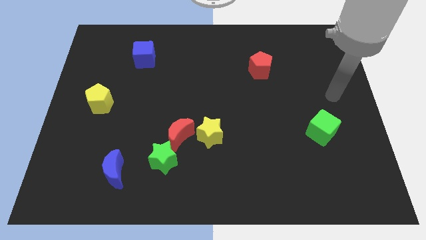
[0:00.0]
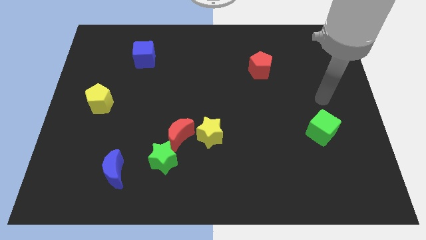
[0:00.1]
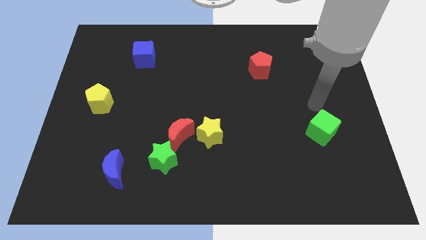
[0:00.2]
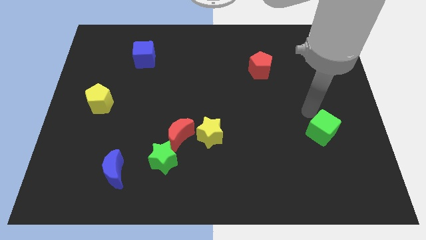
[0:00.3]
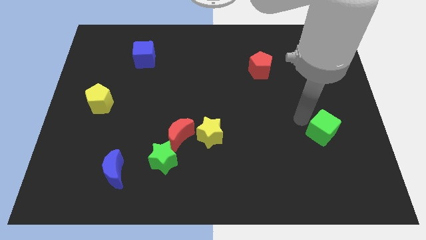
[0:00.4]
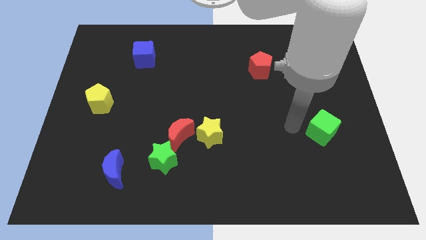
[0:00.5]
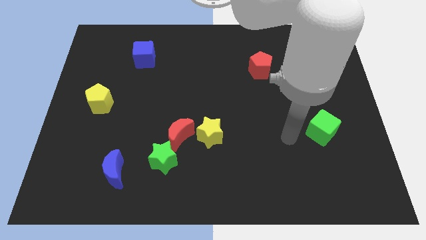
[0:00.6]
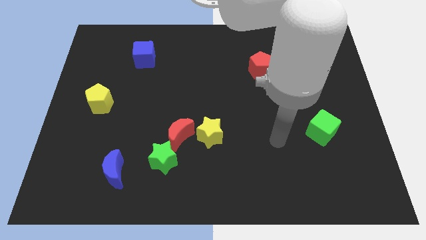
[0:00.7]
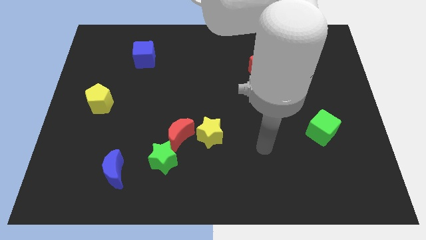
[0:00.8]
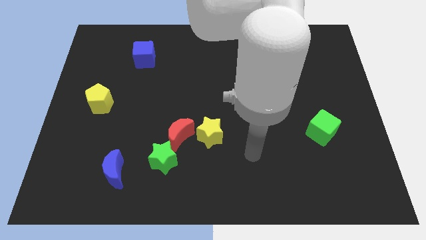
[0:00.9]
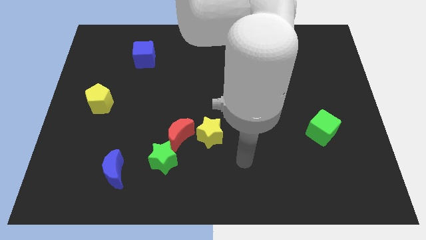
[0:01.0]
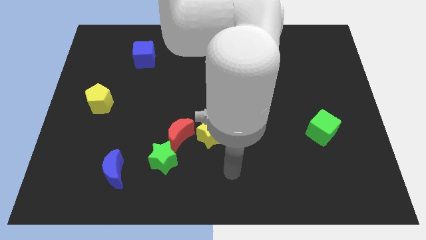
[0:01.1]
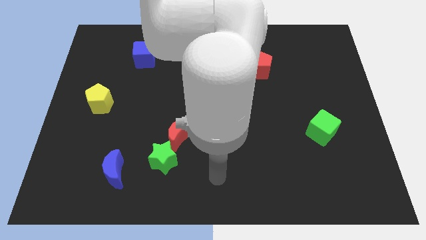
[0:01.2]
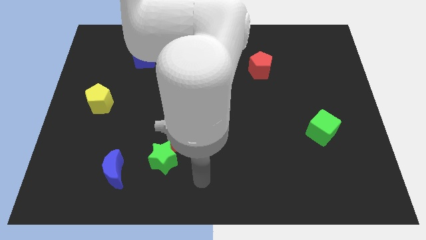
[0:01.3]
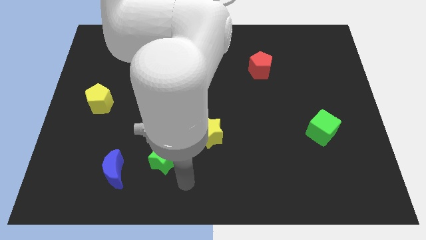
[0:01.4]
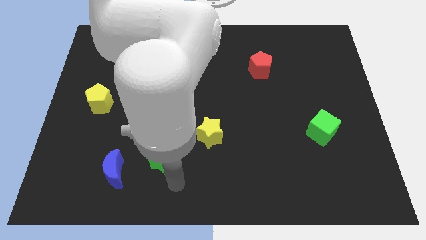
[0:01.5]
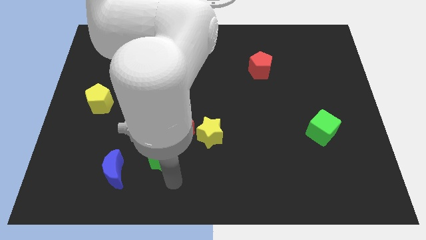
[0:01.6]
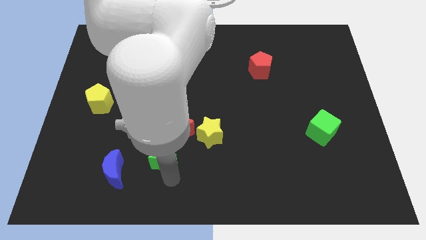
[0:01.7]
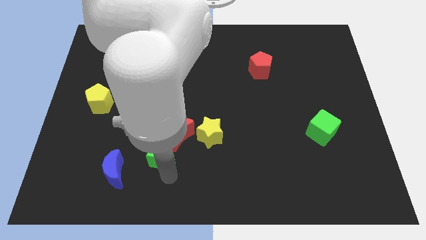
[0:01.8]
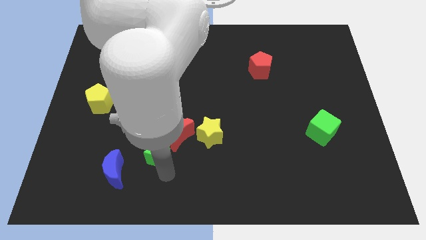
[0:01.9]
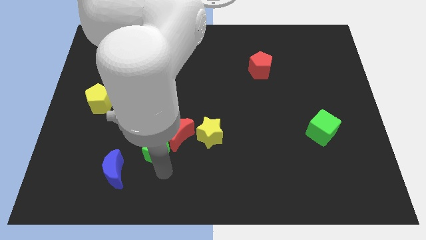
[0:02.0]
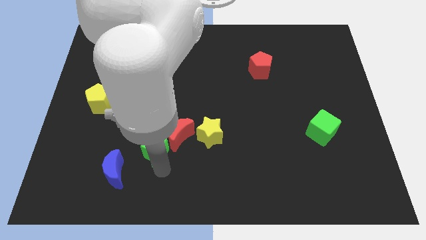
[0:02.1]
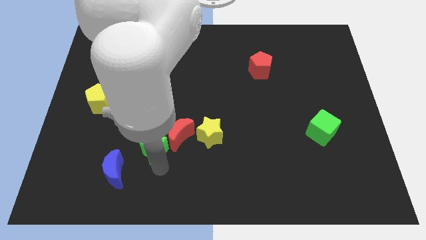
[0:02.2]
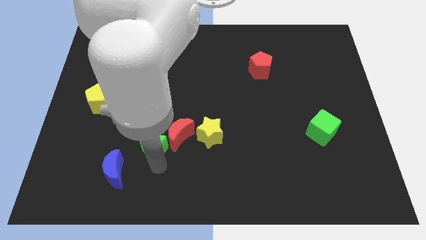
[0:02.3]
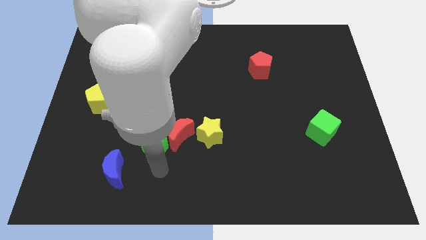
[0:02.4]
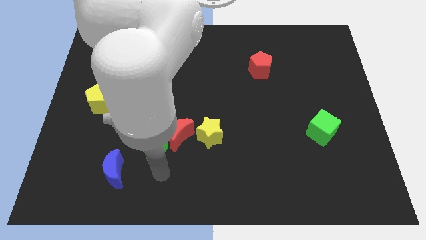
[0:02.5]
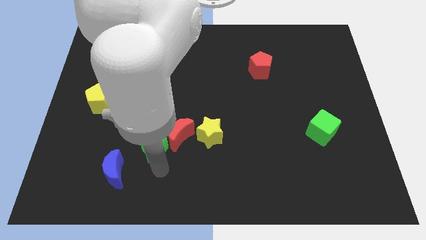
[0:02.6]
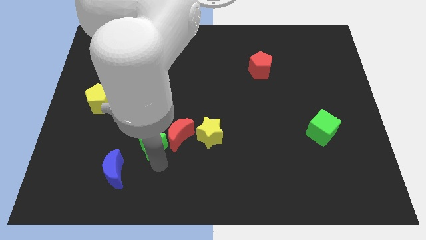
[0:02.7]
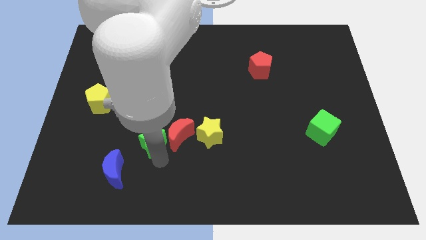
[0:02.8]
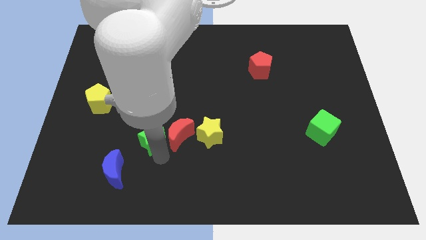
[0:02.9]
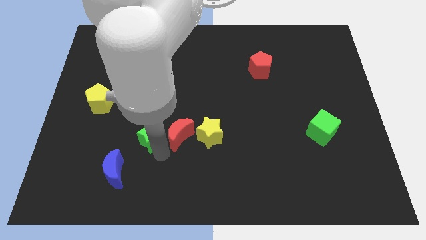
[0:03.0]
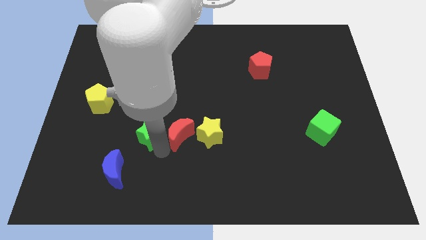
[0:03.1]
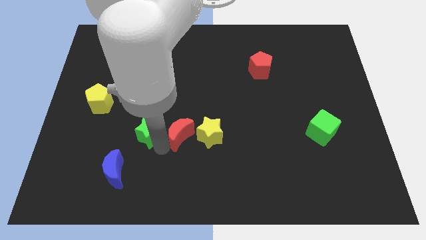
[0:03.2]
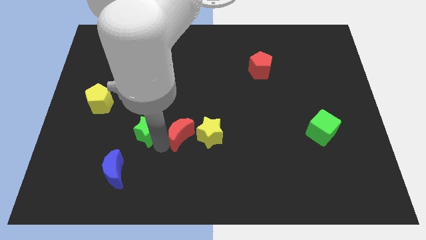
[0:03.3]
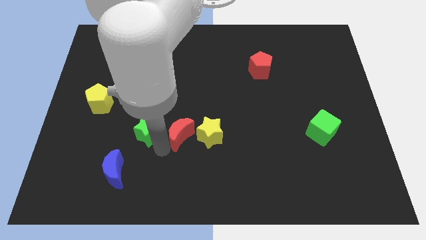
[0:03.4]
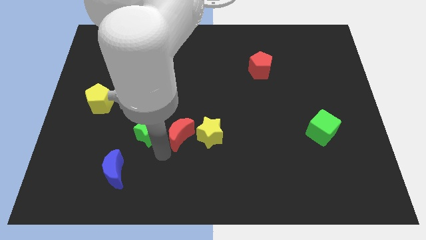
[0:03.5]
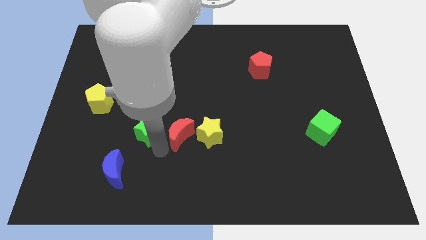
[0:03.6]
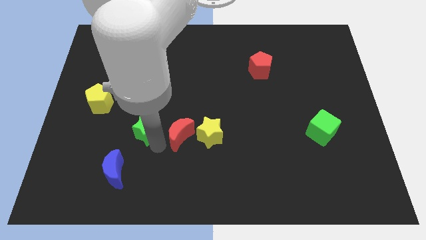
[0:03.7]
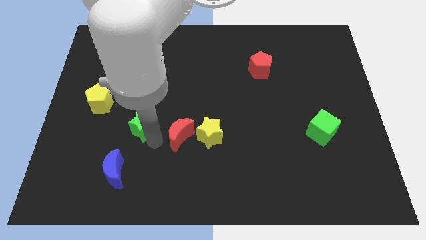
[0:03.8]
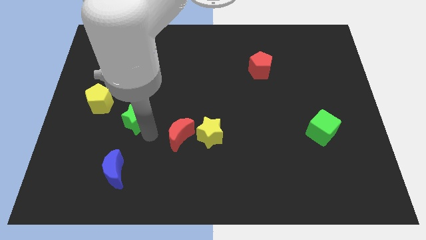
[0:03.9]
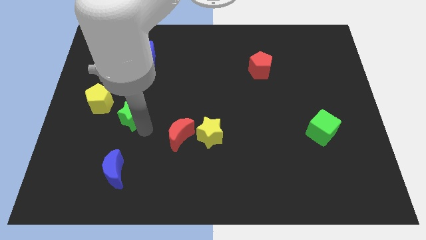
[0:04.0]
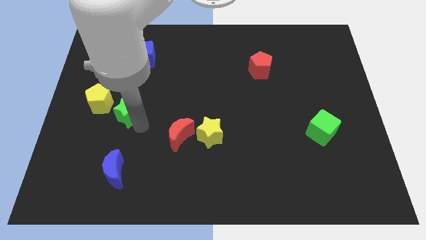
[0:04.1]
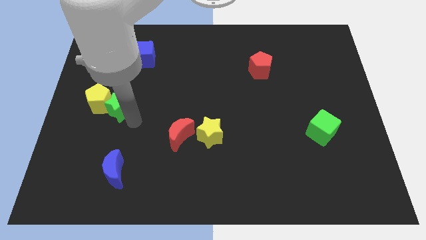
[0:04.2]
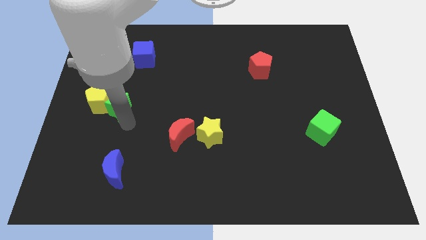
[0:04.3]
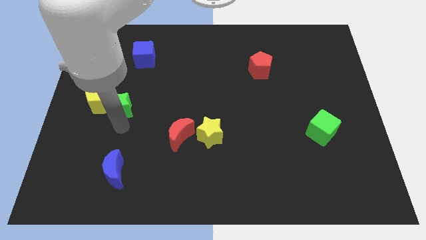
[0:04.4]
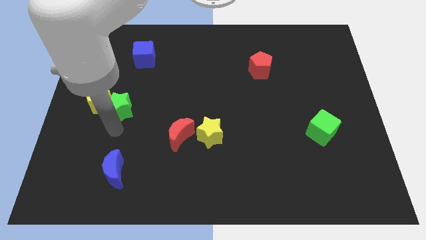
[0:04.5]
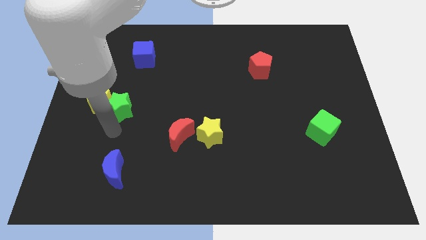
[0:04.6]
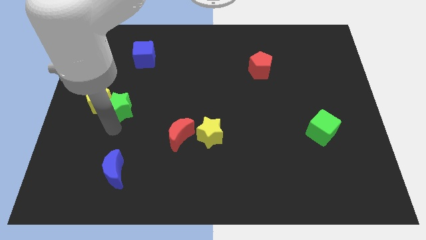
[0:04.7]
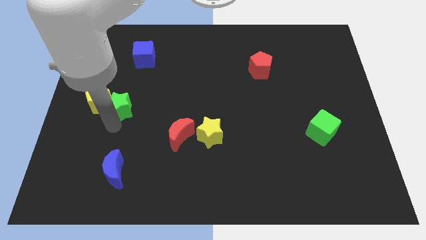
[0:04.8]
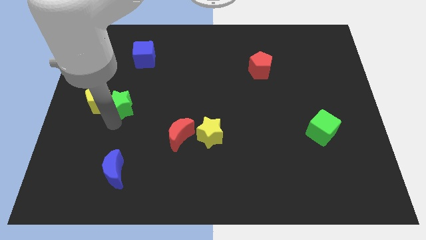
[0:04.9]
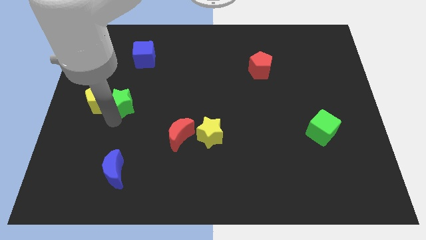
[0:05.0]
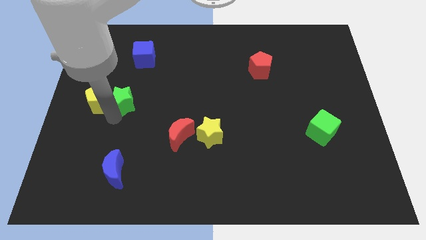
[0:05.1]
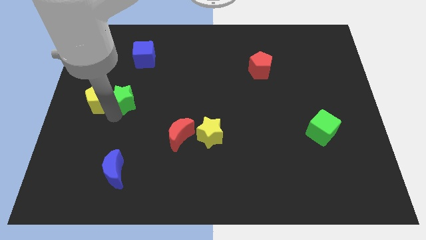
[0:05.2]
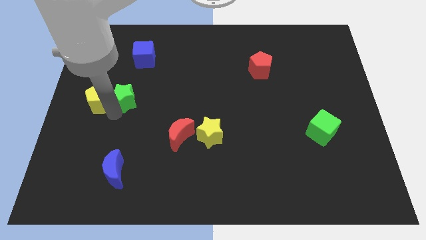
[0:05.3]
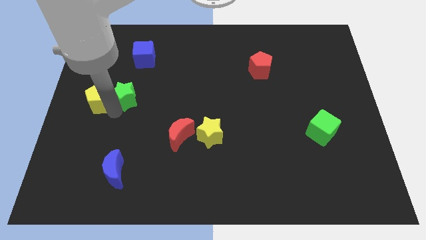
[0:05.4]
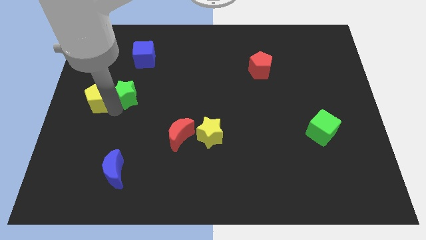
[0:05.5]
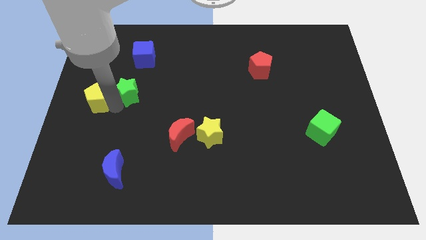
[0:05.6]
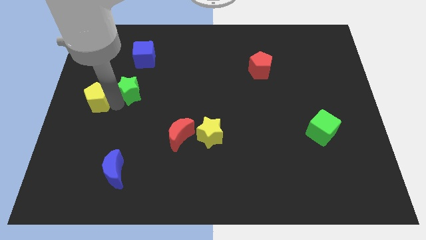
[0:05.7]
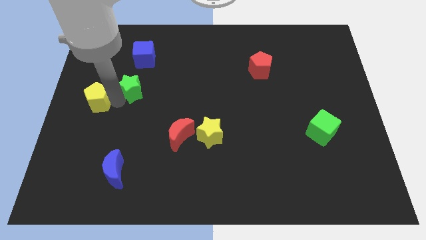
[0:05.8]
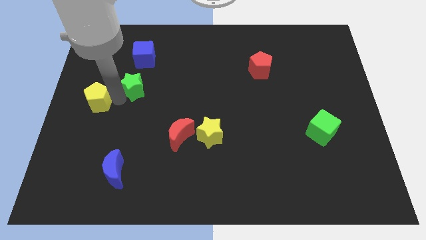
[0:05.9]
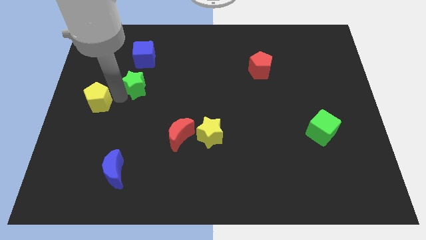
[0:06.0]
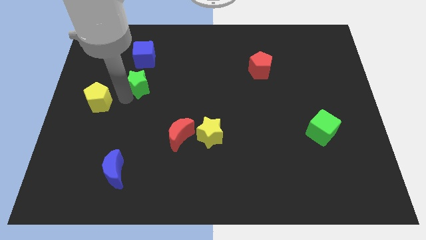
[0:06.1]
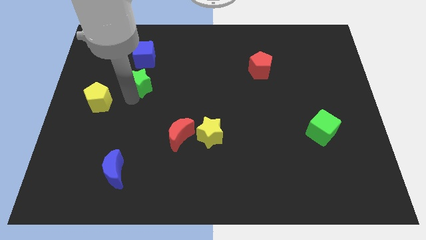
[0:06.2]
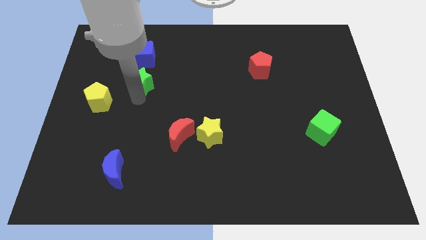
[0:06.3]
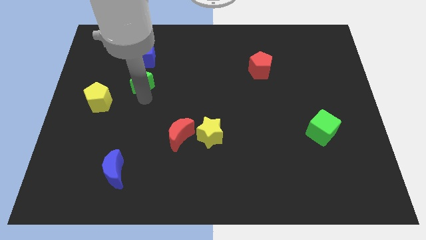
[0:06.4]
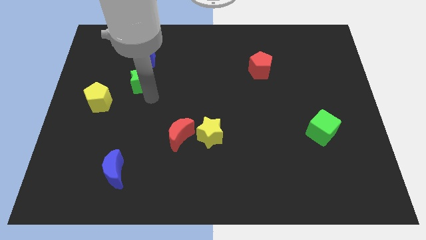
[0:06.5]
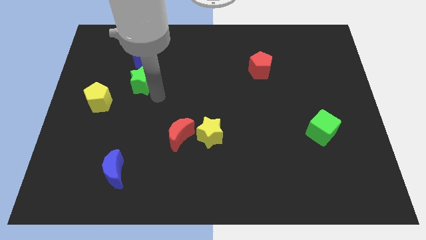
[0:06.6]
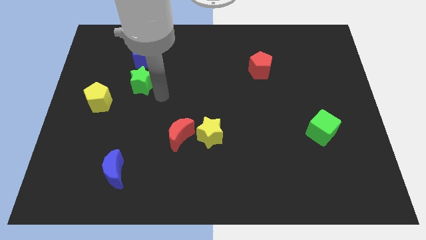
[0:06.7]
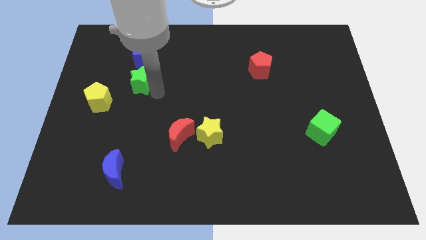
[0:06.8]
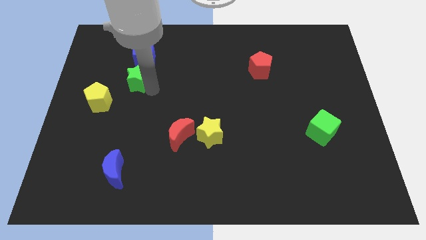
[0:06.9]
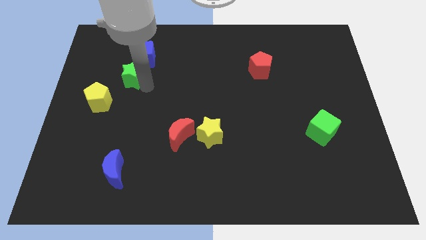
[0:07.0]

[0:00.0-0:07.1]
push the green star to the bottom left of the blue cube
